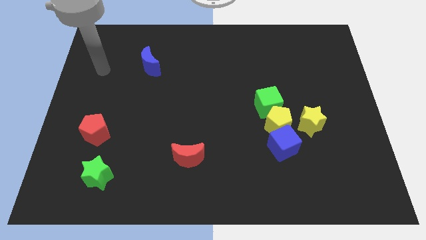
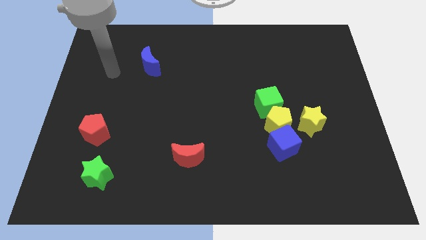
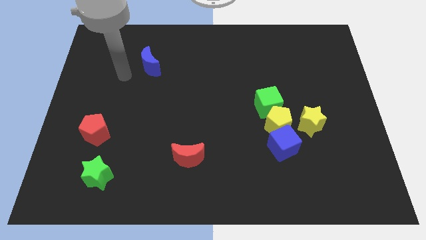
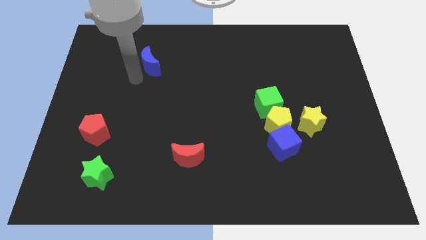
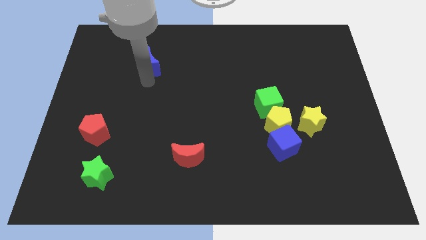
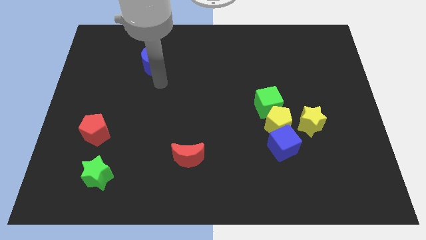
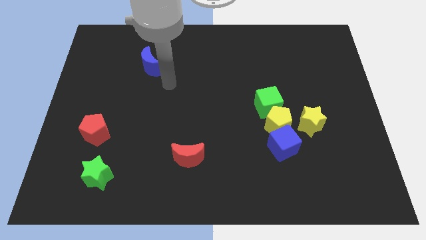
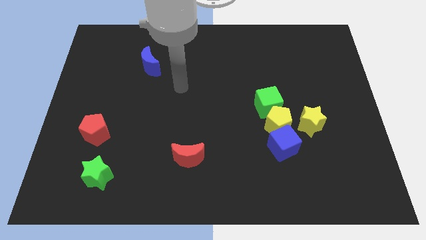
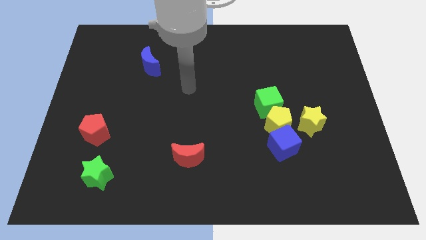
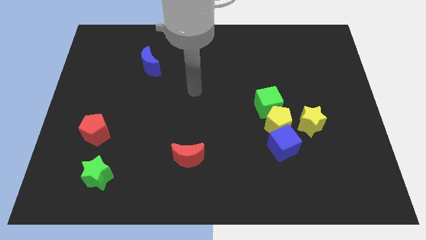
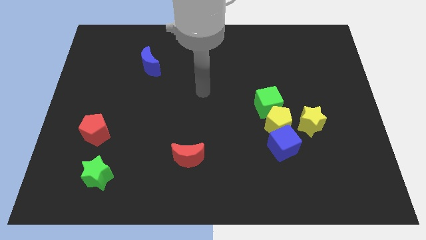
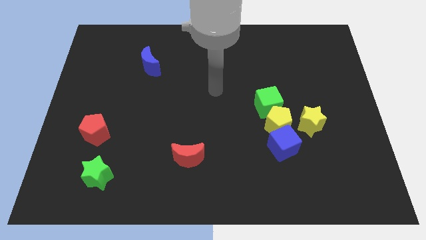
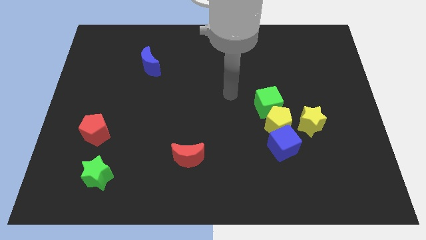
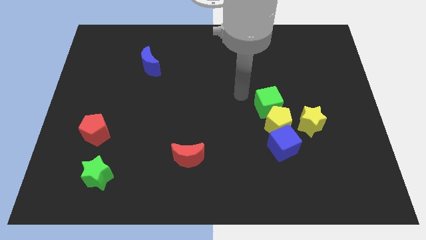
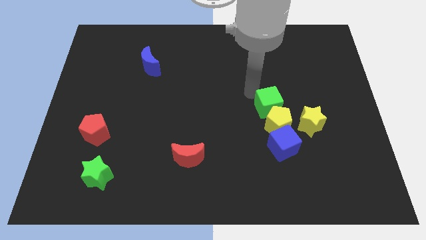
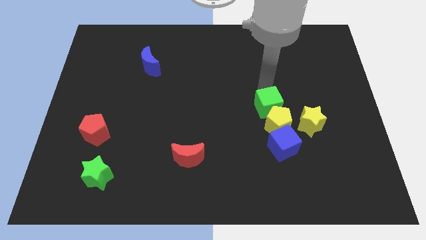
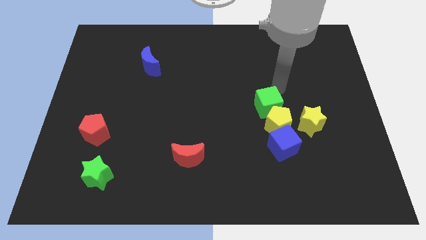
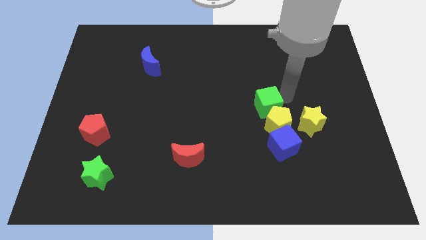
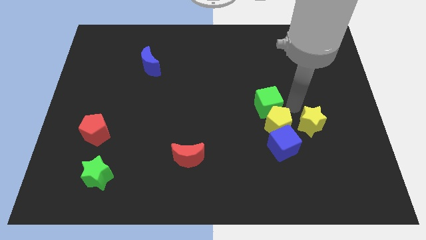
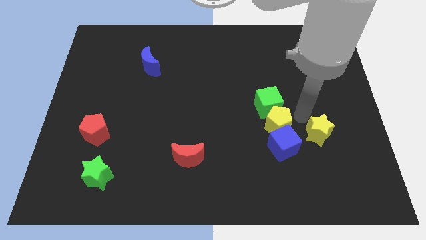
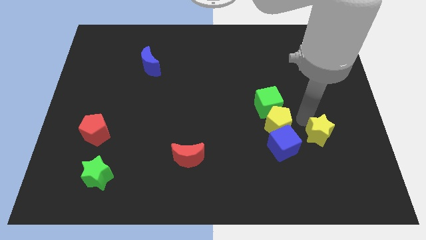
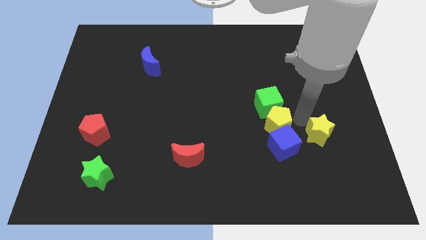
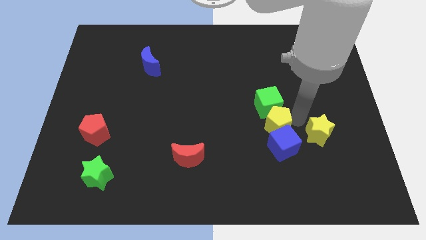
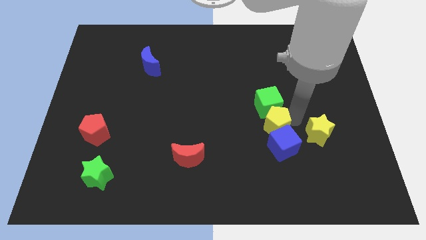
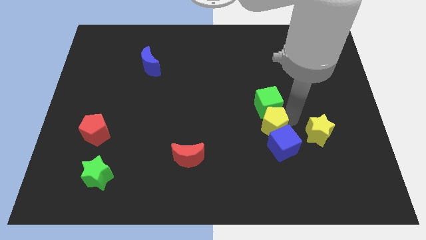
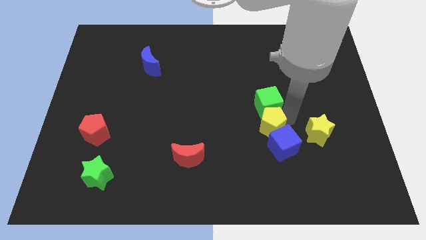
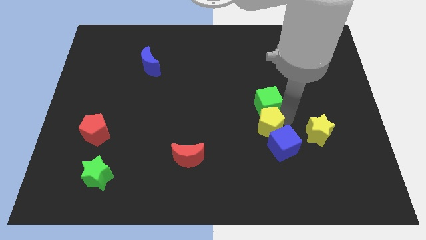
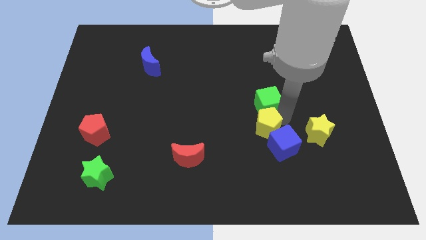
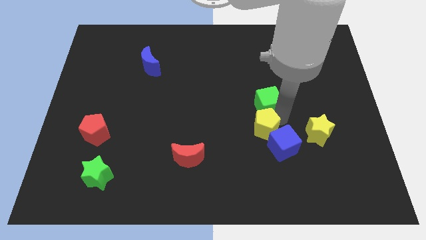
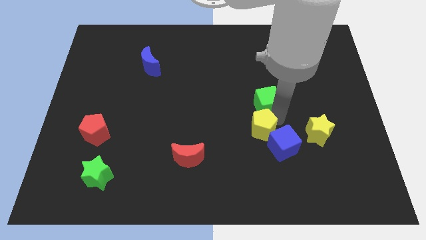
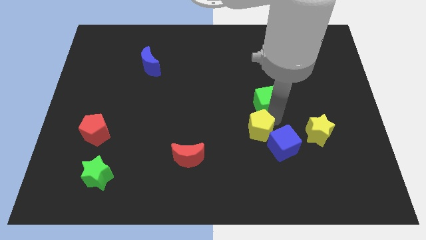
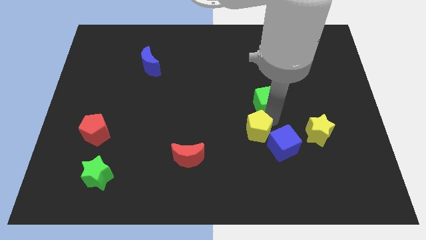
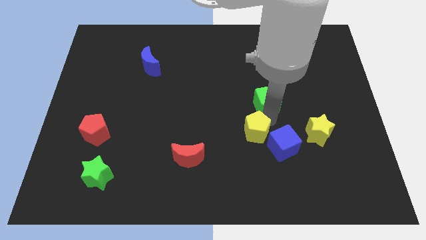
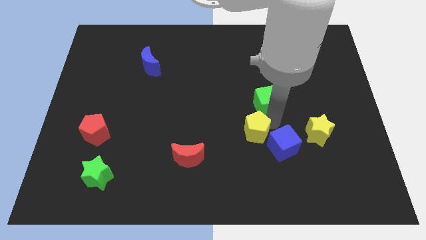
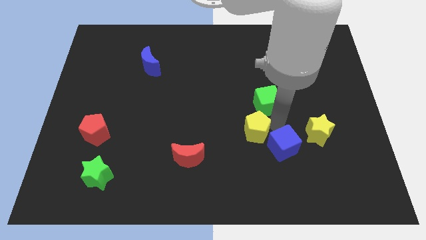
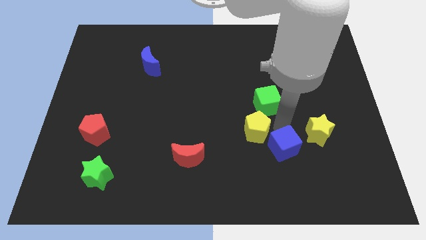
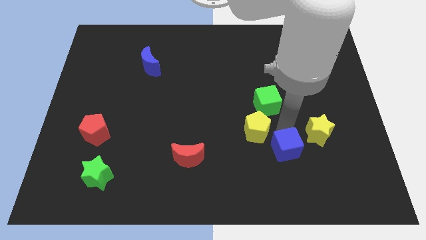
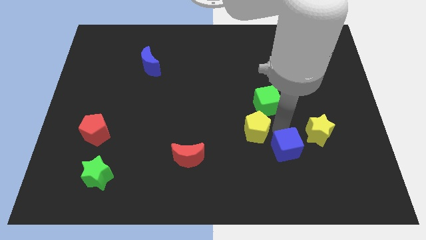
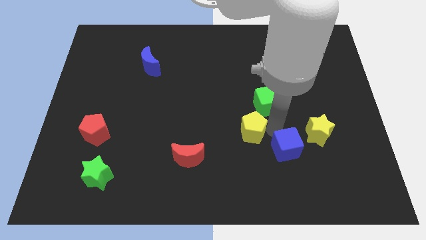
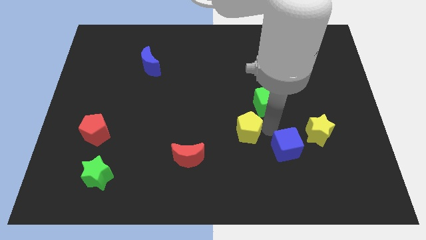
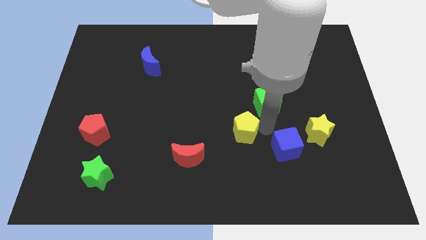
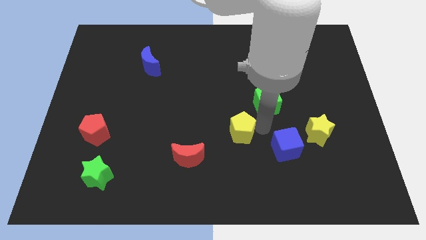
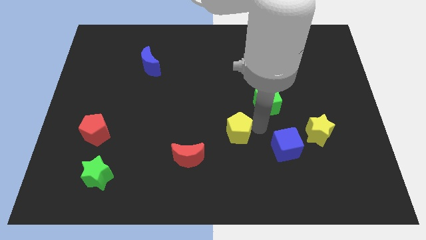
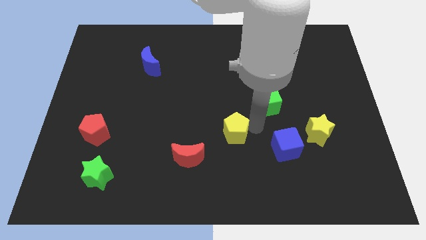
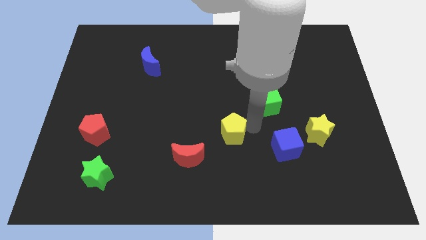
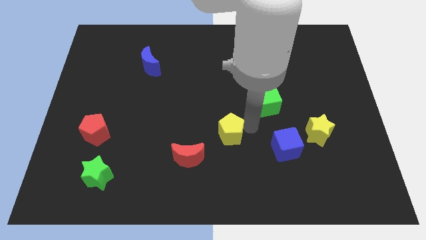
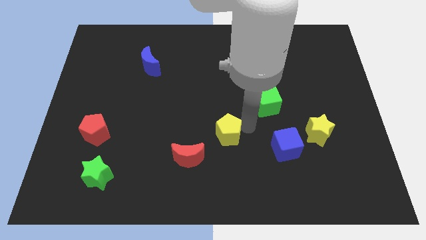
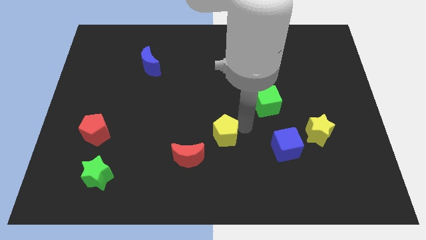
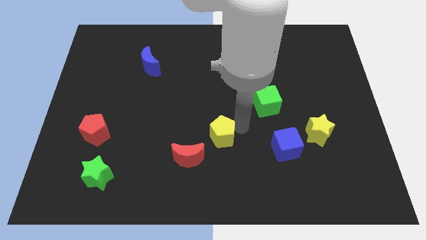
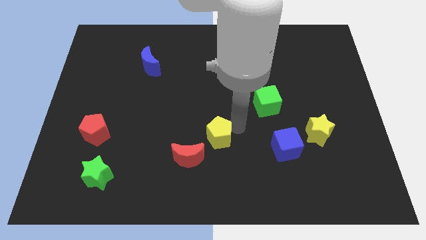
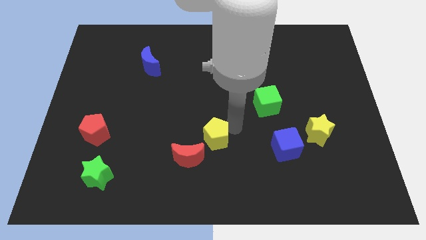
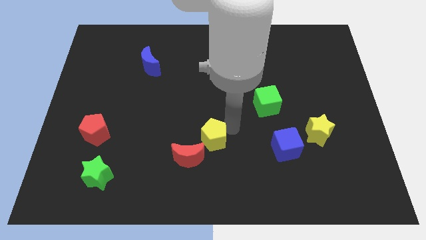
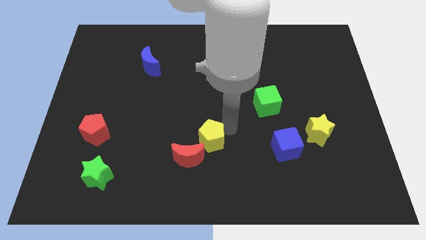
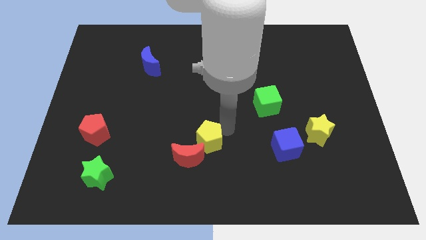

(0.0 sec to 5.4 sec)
slide the yellow pentagon close to the red moon
